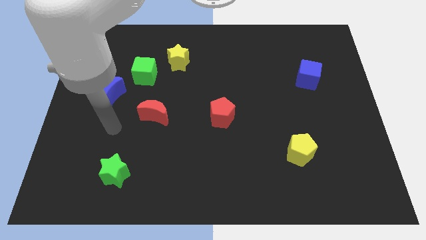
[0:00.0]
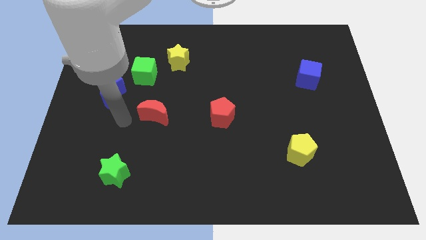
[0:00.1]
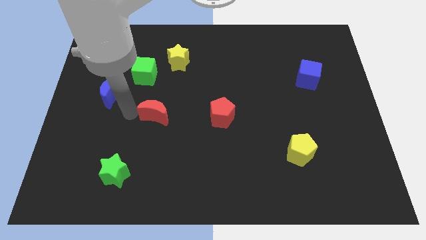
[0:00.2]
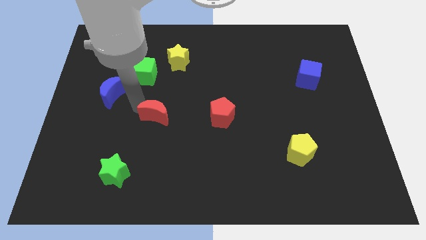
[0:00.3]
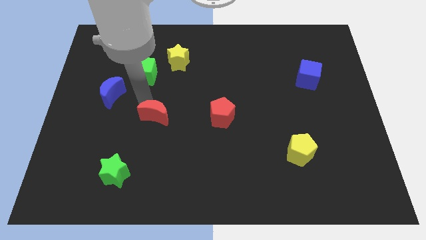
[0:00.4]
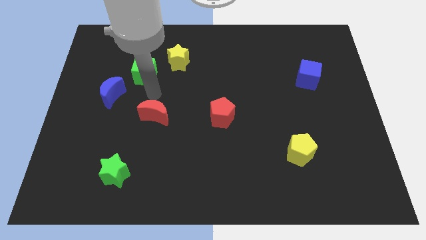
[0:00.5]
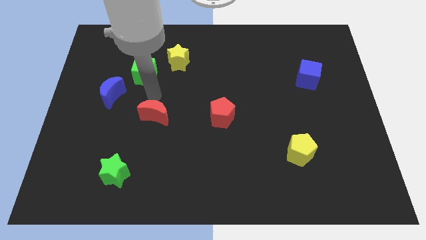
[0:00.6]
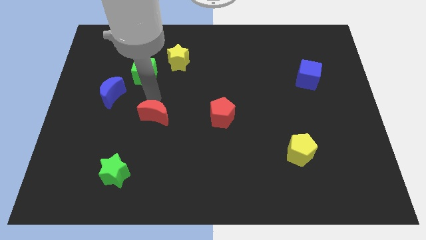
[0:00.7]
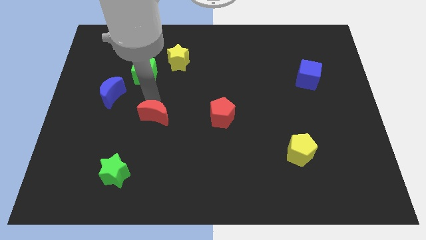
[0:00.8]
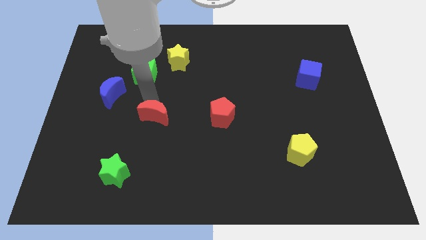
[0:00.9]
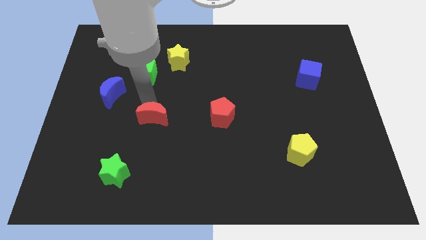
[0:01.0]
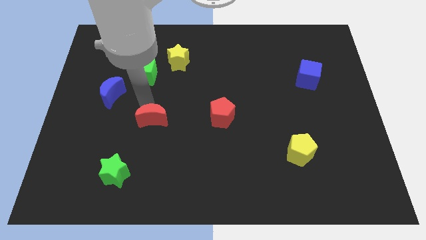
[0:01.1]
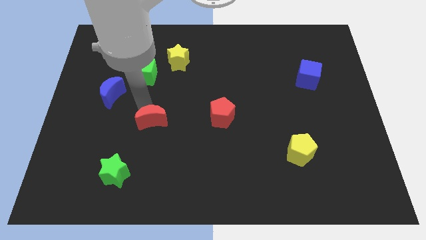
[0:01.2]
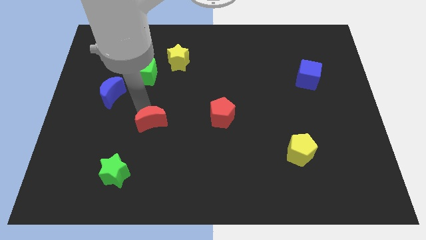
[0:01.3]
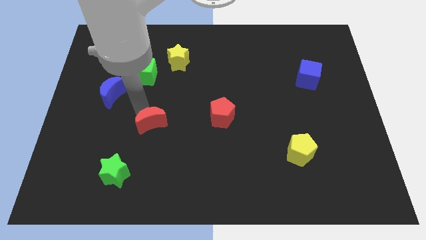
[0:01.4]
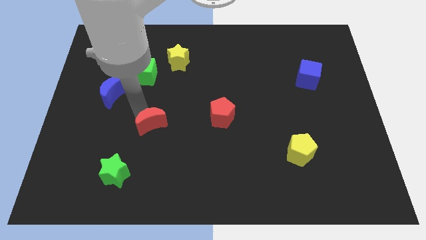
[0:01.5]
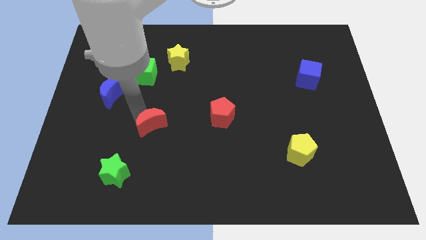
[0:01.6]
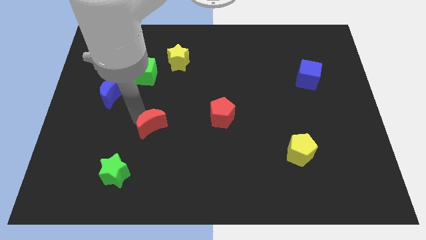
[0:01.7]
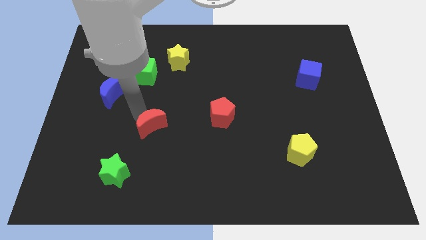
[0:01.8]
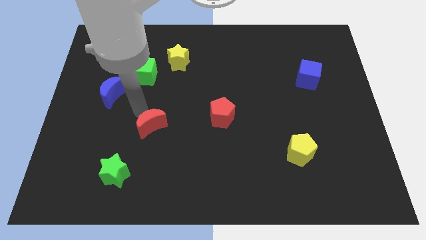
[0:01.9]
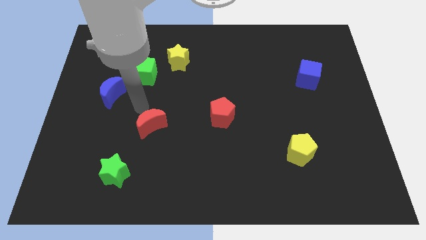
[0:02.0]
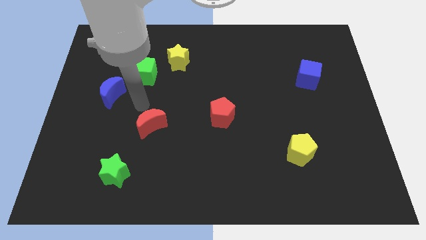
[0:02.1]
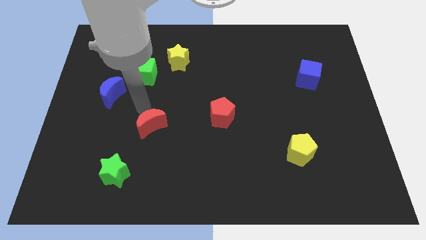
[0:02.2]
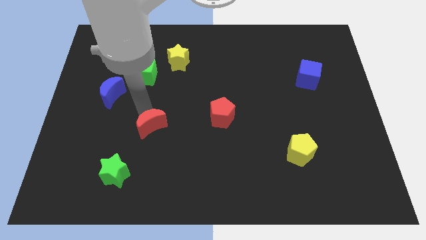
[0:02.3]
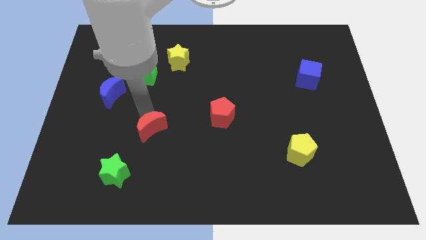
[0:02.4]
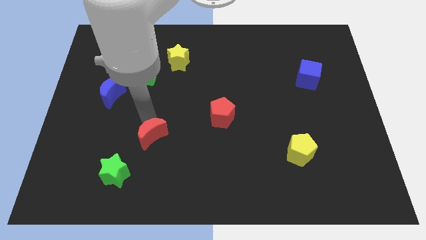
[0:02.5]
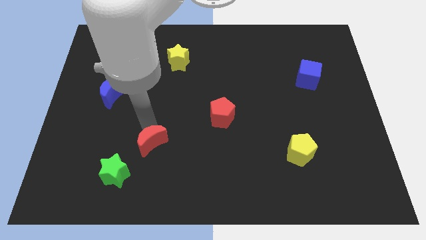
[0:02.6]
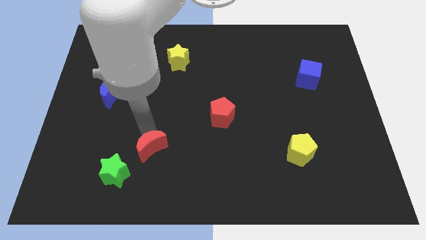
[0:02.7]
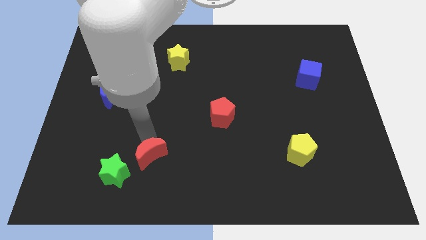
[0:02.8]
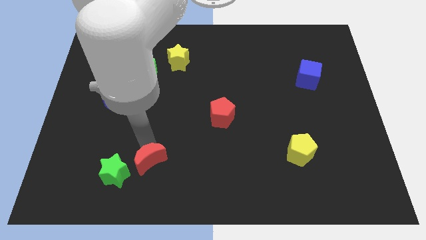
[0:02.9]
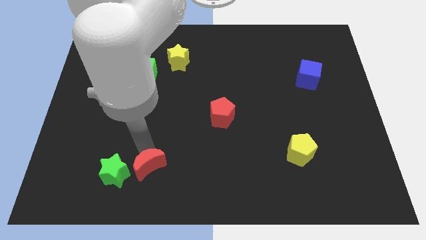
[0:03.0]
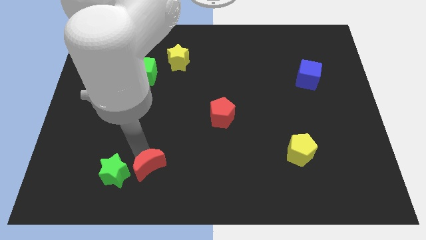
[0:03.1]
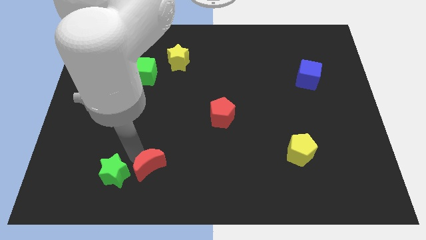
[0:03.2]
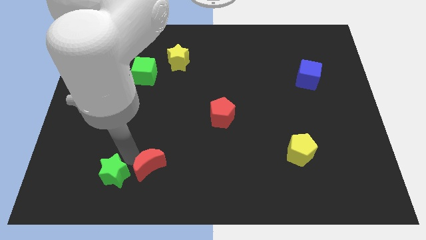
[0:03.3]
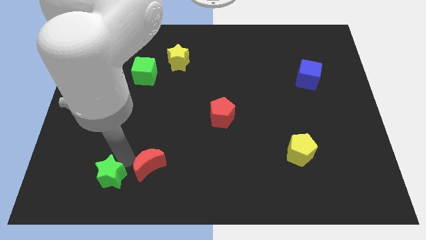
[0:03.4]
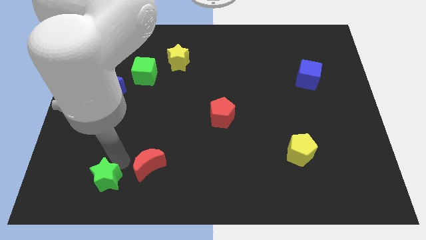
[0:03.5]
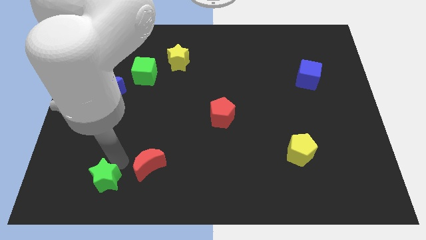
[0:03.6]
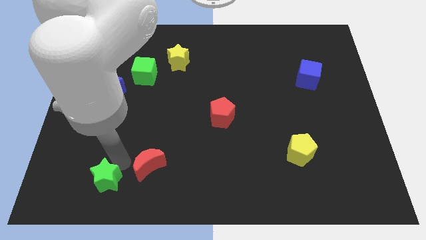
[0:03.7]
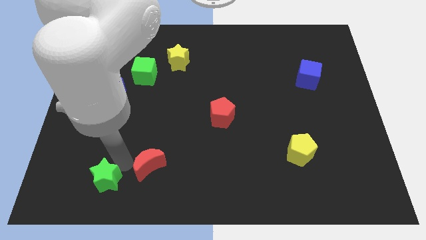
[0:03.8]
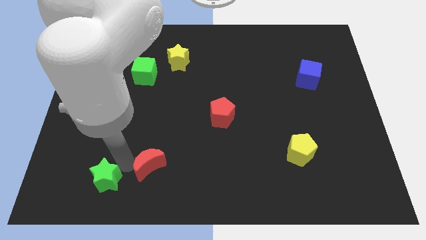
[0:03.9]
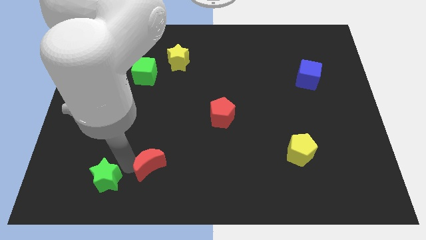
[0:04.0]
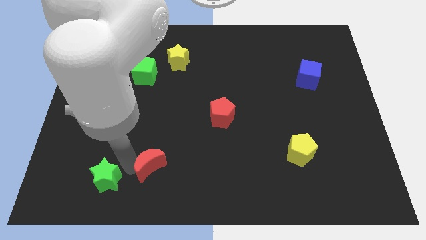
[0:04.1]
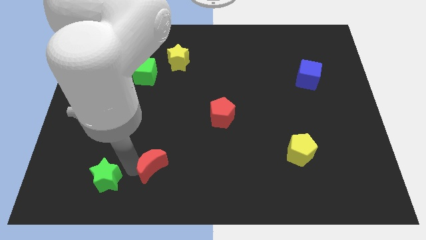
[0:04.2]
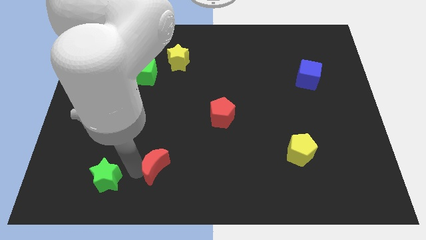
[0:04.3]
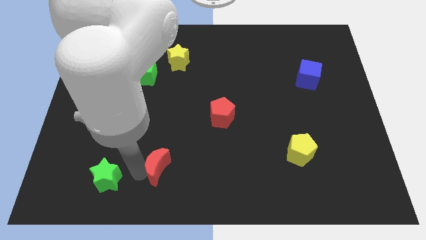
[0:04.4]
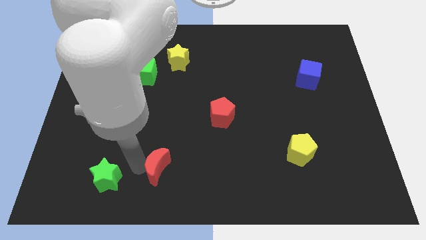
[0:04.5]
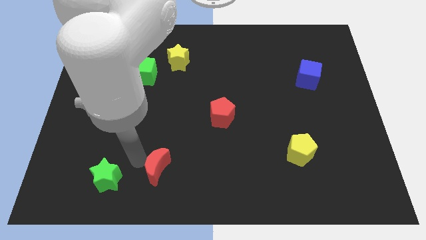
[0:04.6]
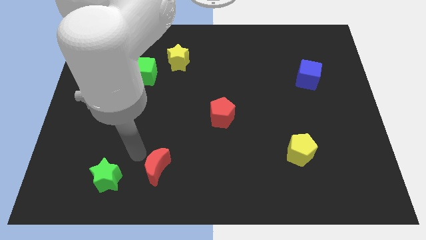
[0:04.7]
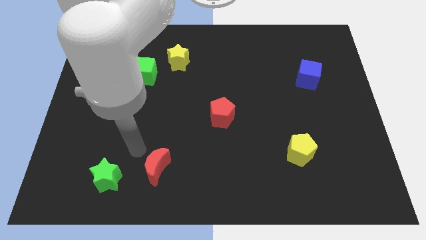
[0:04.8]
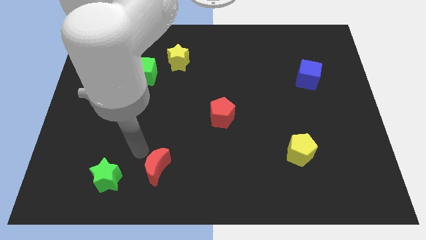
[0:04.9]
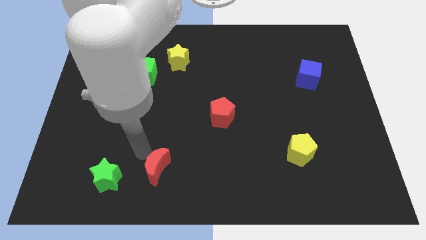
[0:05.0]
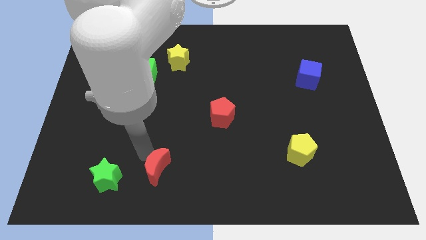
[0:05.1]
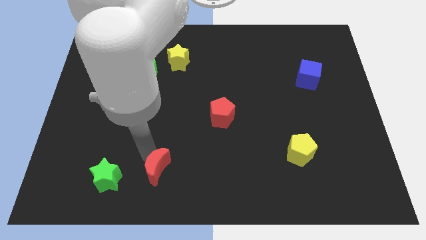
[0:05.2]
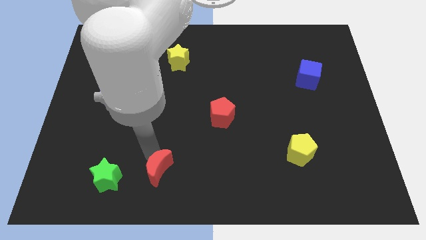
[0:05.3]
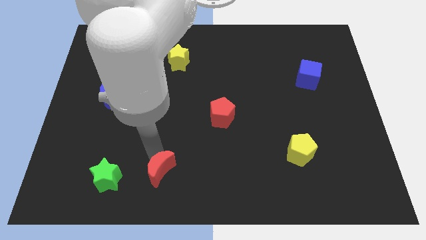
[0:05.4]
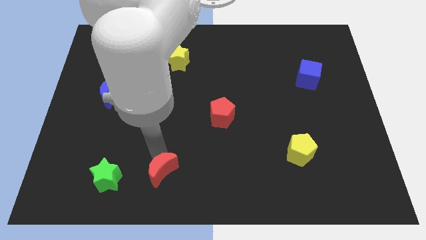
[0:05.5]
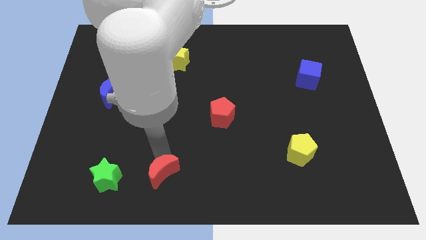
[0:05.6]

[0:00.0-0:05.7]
push the red moon to the bottom side
